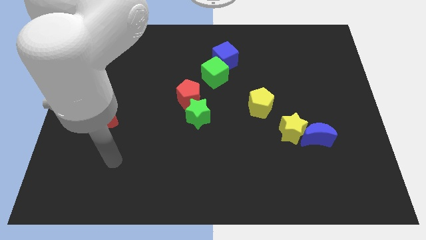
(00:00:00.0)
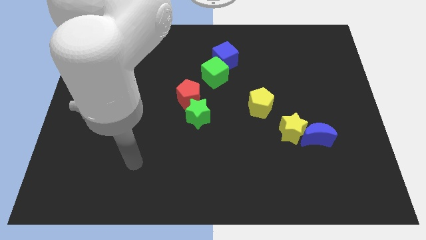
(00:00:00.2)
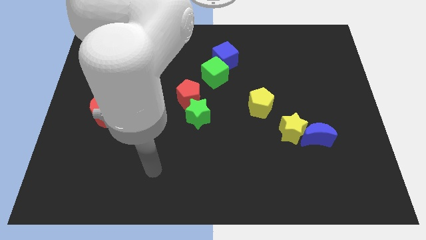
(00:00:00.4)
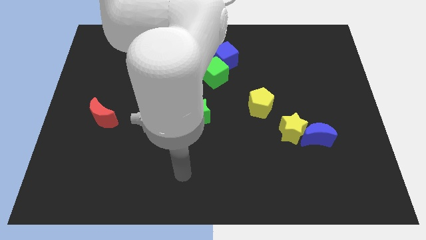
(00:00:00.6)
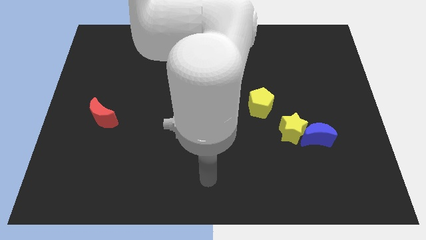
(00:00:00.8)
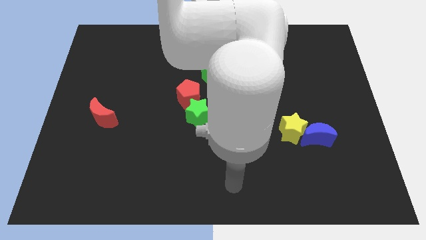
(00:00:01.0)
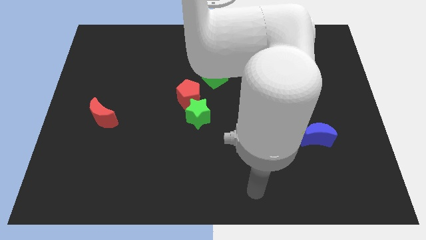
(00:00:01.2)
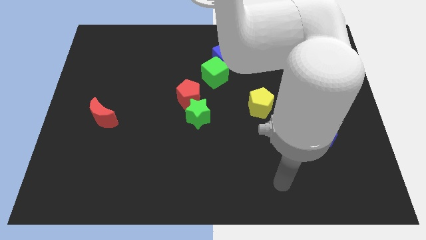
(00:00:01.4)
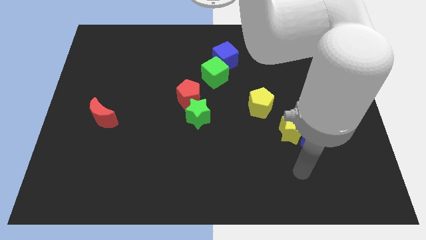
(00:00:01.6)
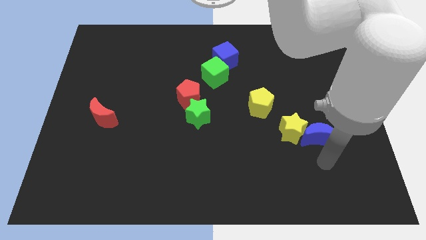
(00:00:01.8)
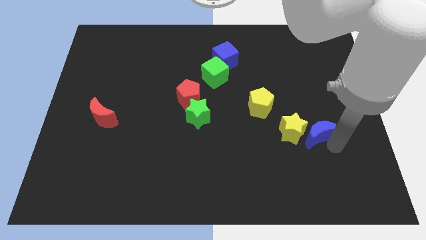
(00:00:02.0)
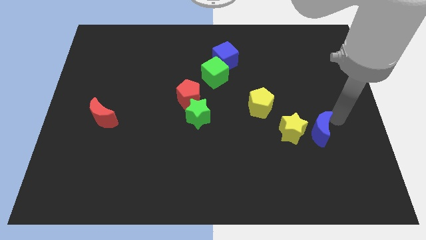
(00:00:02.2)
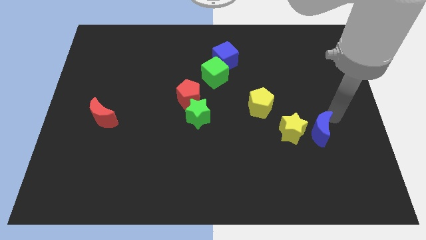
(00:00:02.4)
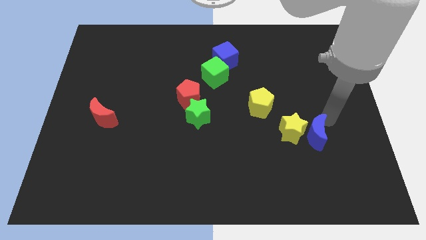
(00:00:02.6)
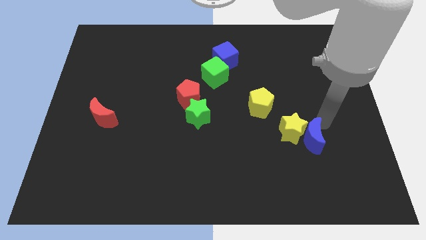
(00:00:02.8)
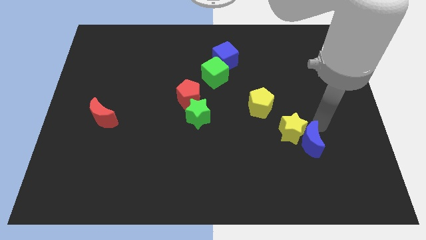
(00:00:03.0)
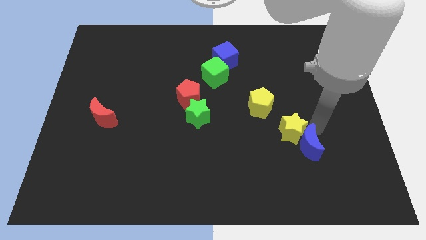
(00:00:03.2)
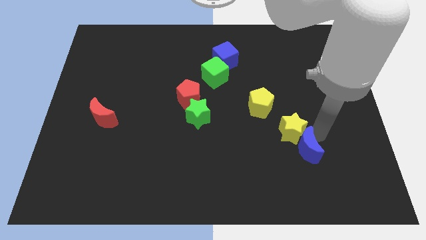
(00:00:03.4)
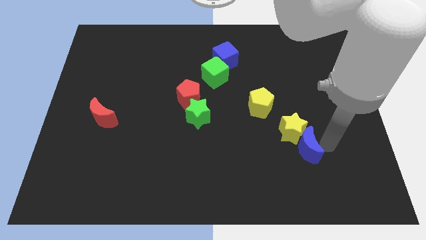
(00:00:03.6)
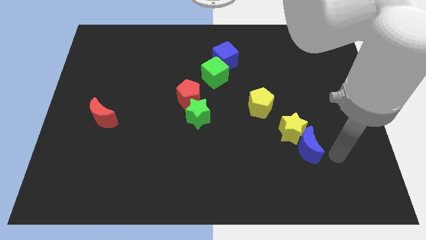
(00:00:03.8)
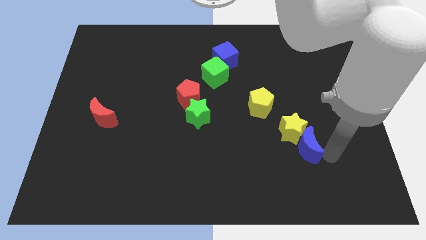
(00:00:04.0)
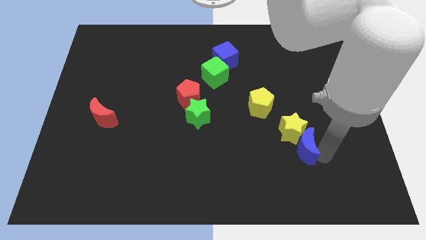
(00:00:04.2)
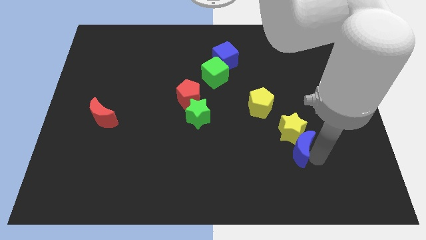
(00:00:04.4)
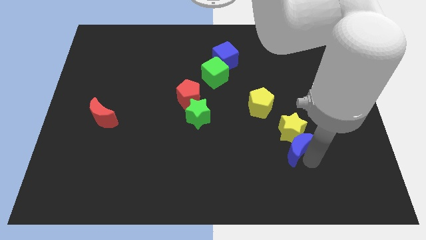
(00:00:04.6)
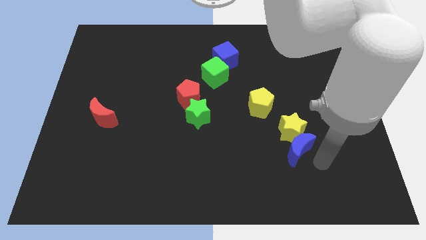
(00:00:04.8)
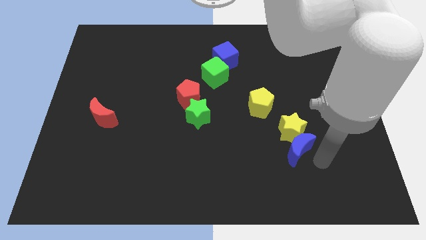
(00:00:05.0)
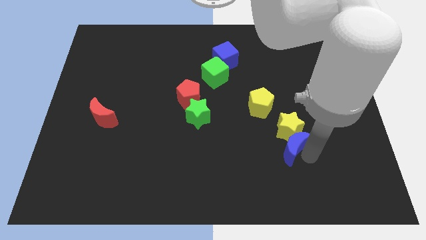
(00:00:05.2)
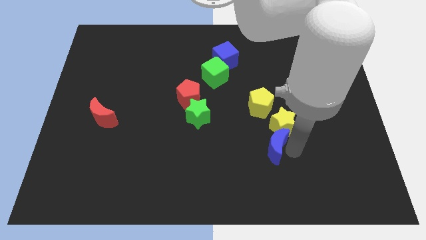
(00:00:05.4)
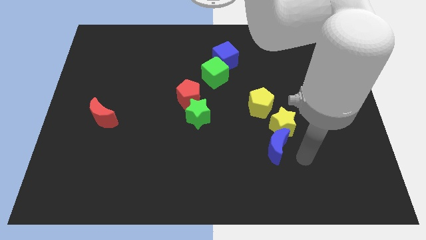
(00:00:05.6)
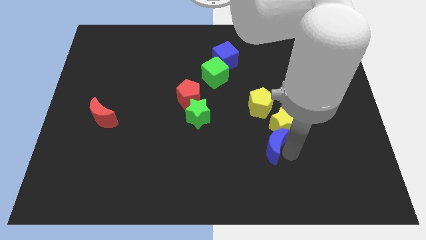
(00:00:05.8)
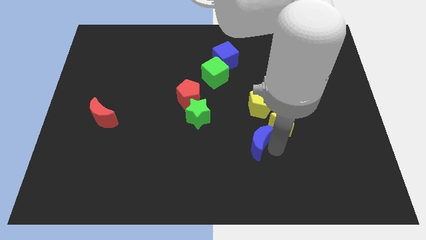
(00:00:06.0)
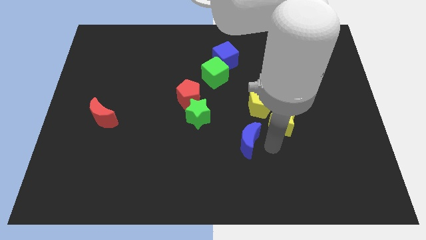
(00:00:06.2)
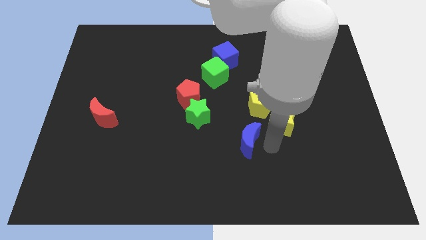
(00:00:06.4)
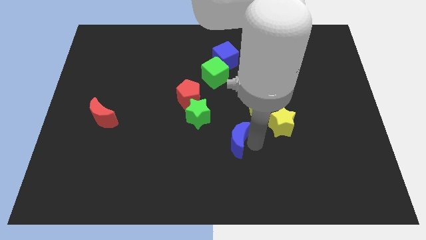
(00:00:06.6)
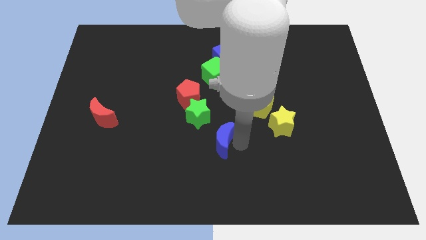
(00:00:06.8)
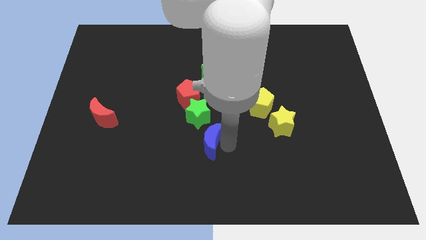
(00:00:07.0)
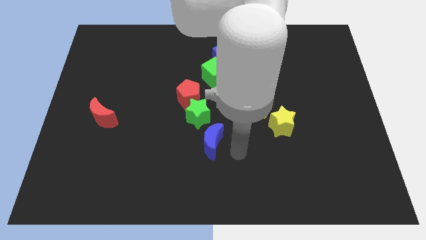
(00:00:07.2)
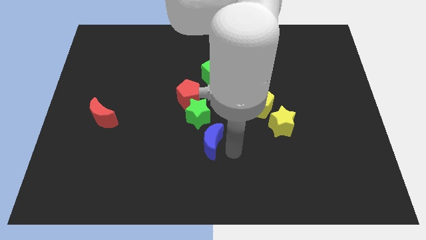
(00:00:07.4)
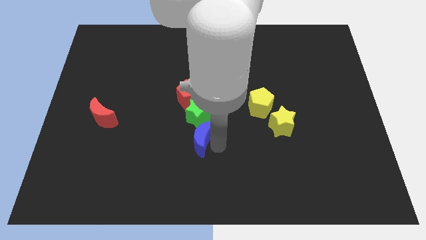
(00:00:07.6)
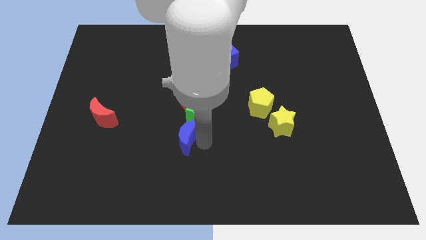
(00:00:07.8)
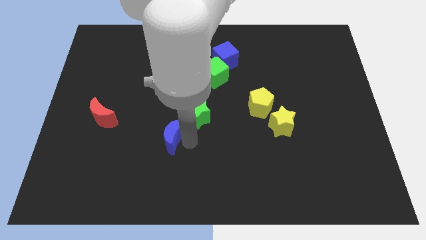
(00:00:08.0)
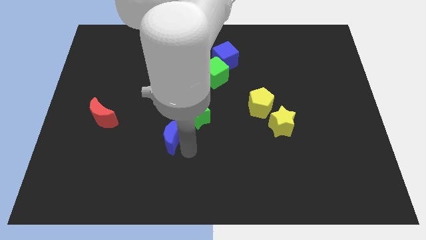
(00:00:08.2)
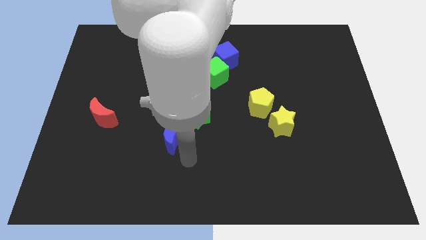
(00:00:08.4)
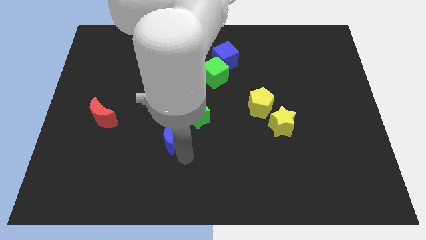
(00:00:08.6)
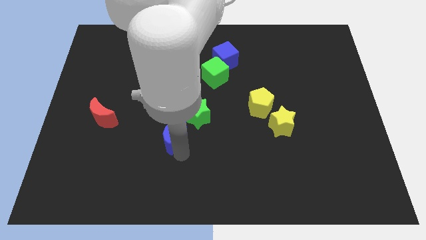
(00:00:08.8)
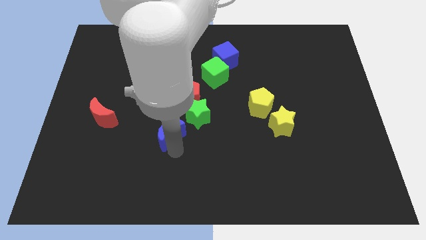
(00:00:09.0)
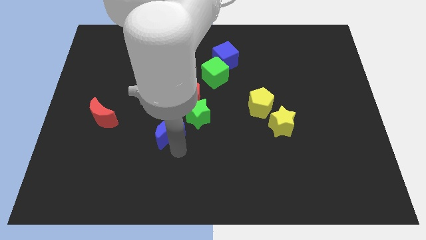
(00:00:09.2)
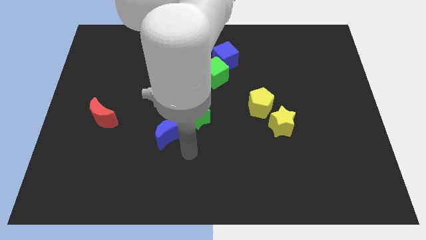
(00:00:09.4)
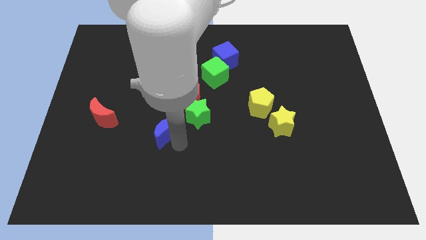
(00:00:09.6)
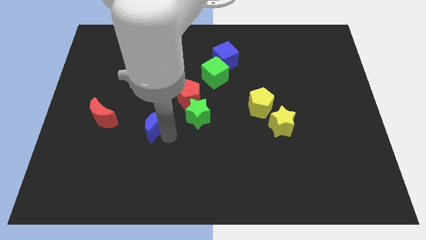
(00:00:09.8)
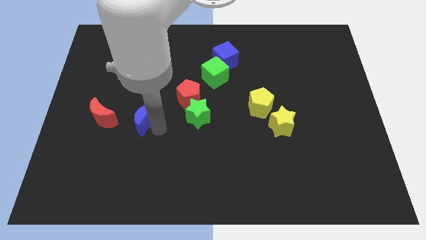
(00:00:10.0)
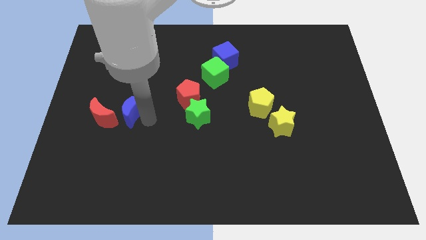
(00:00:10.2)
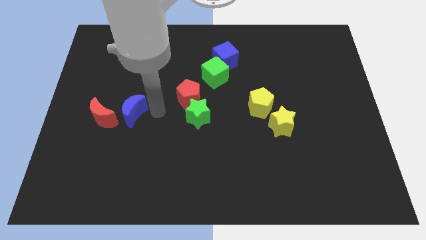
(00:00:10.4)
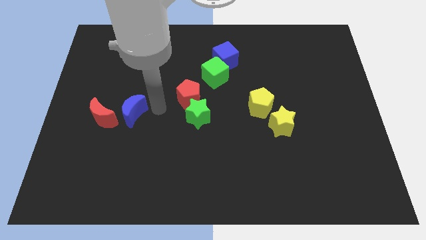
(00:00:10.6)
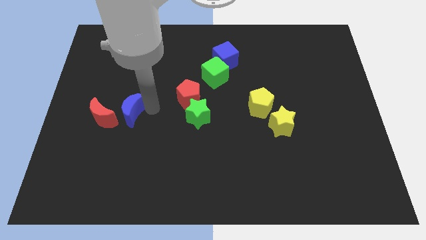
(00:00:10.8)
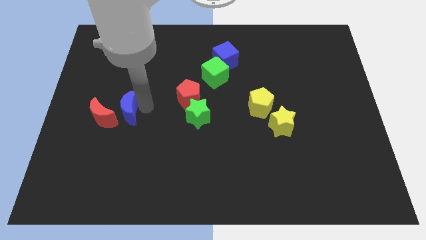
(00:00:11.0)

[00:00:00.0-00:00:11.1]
move the blue moon next to the red moon

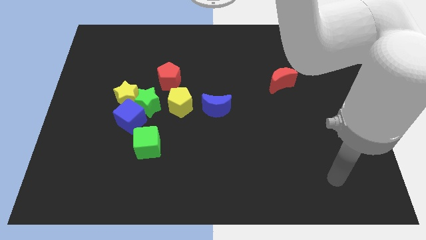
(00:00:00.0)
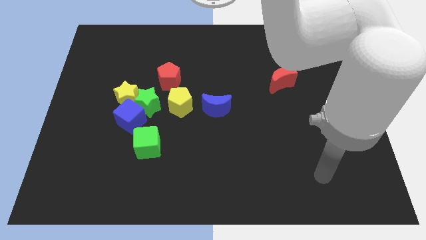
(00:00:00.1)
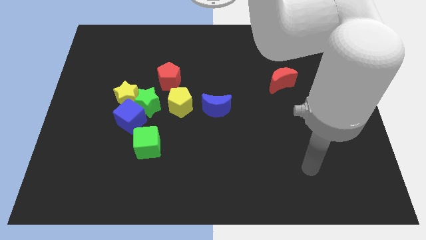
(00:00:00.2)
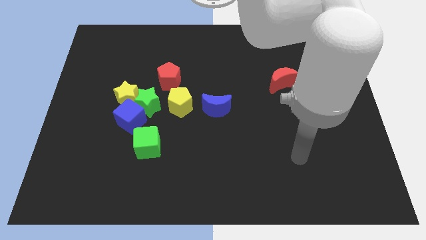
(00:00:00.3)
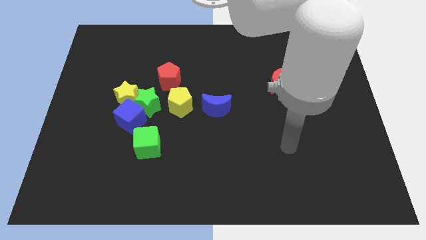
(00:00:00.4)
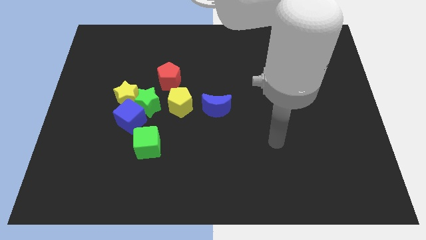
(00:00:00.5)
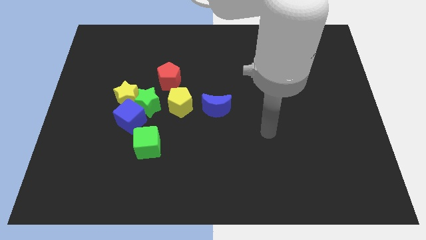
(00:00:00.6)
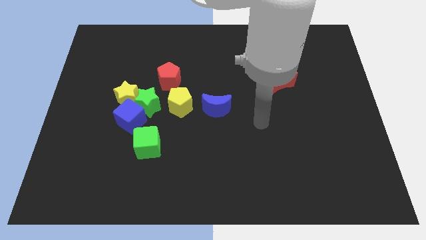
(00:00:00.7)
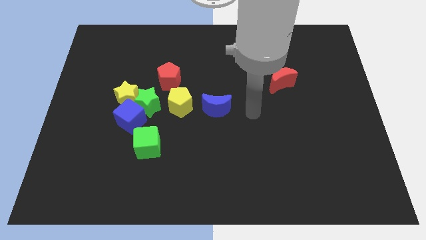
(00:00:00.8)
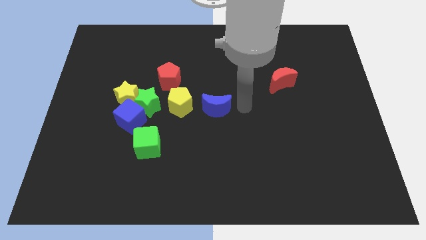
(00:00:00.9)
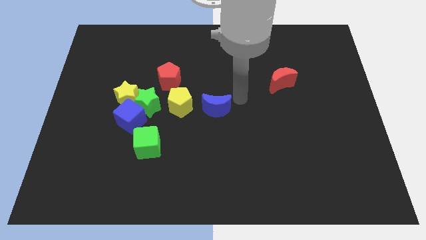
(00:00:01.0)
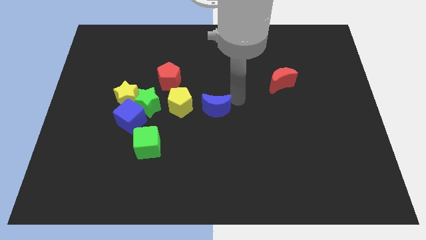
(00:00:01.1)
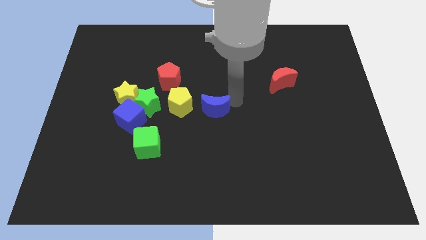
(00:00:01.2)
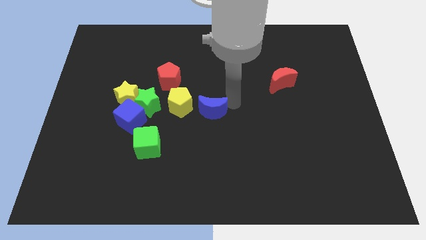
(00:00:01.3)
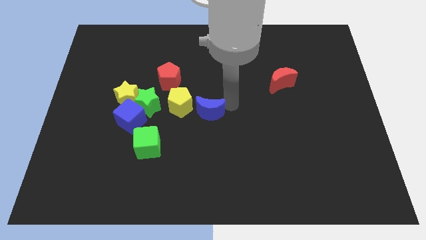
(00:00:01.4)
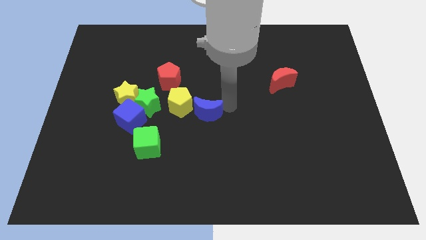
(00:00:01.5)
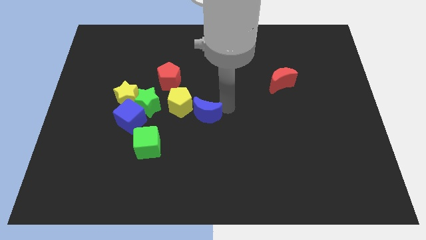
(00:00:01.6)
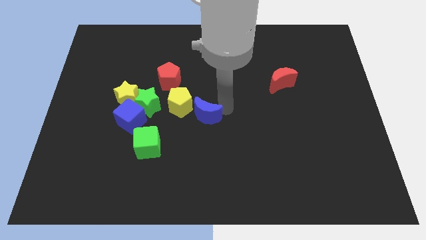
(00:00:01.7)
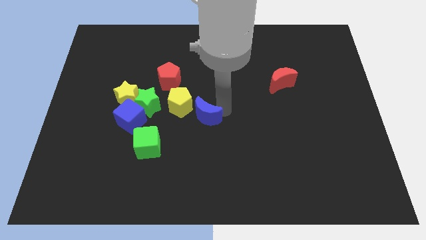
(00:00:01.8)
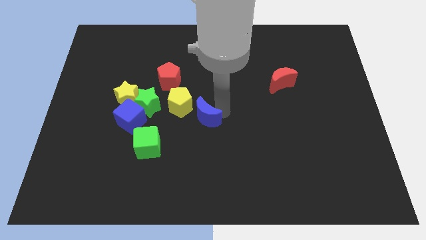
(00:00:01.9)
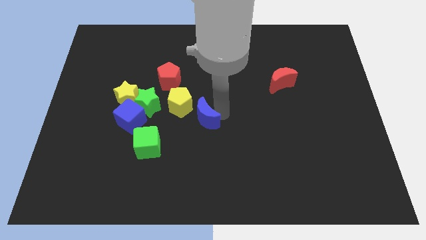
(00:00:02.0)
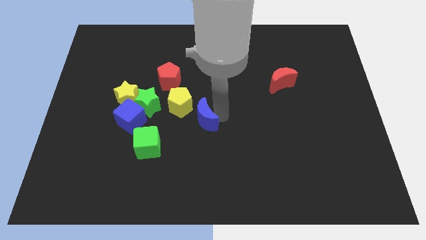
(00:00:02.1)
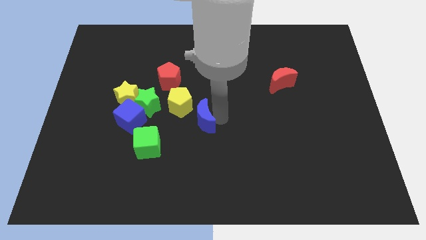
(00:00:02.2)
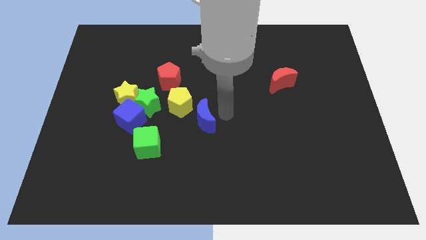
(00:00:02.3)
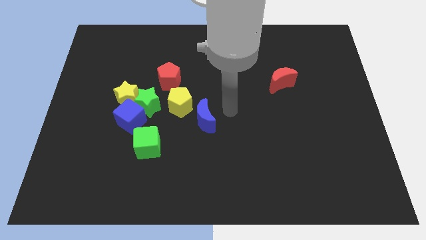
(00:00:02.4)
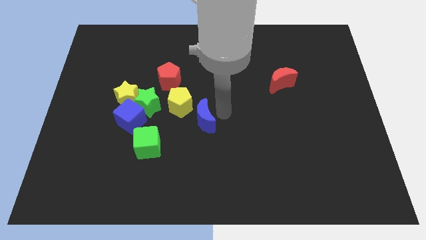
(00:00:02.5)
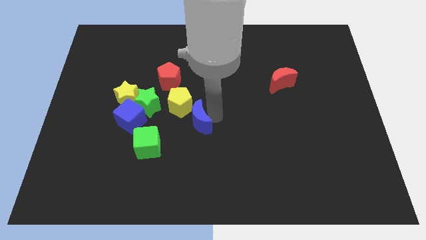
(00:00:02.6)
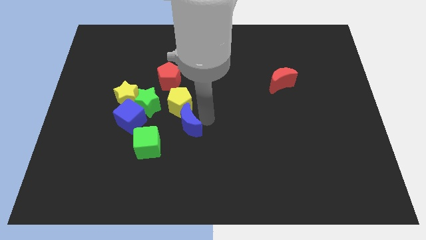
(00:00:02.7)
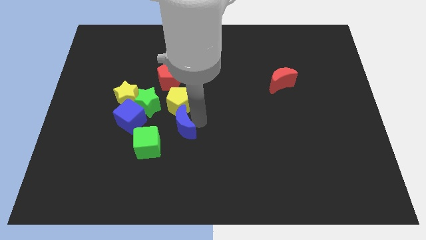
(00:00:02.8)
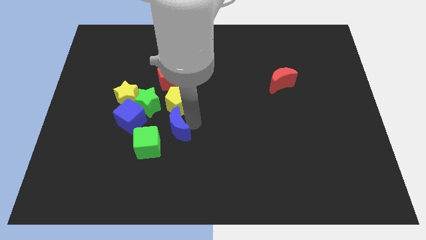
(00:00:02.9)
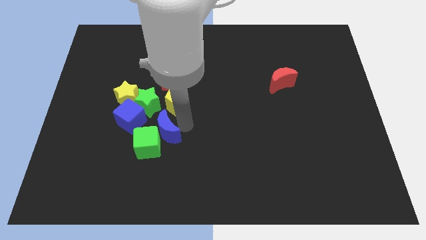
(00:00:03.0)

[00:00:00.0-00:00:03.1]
put the blue moon towards the green cube
